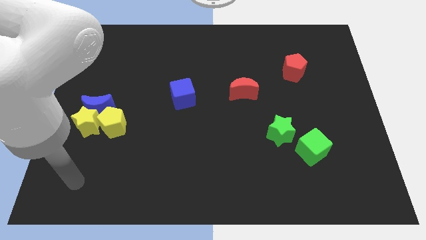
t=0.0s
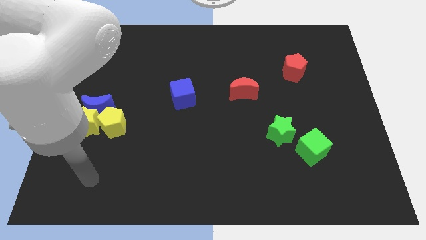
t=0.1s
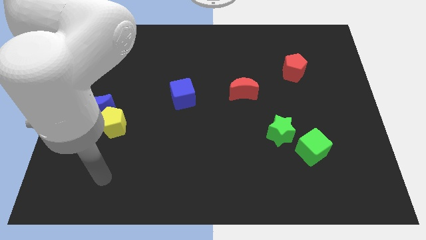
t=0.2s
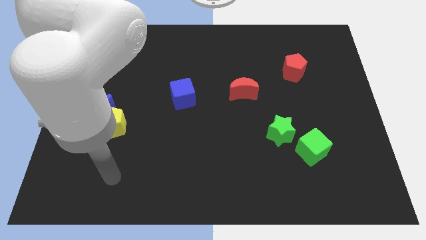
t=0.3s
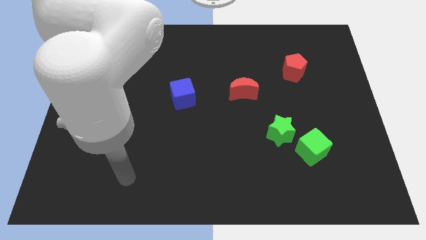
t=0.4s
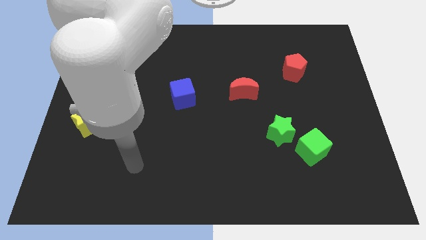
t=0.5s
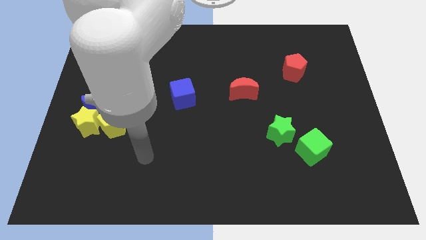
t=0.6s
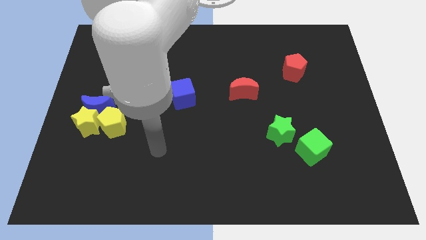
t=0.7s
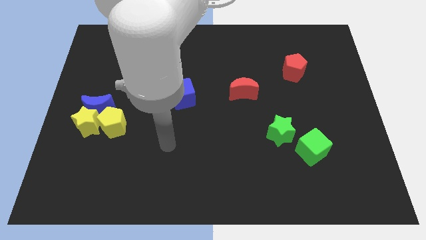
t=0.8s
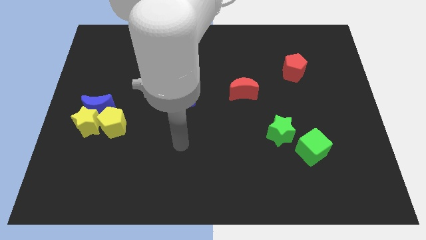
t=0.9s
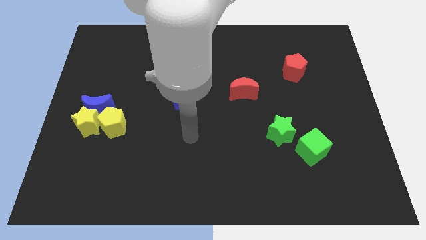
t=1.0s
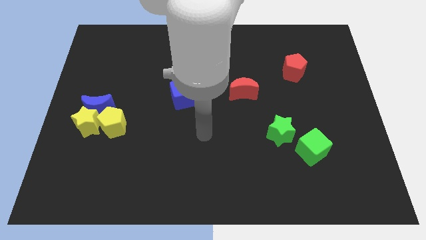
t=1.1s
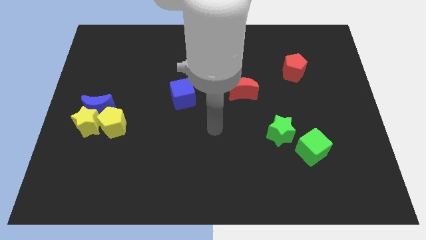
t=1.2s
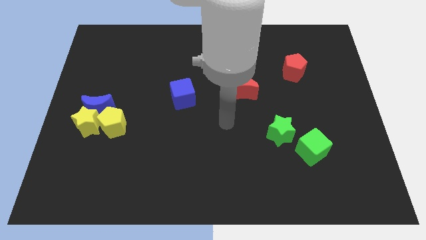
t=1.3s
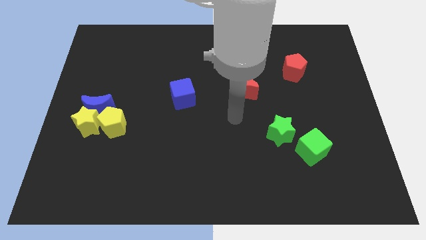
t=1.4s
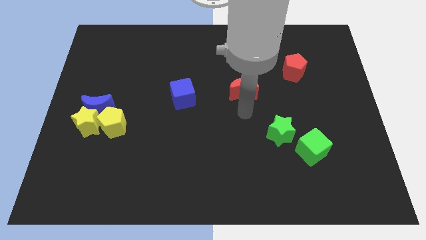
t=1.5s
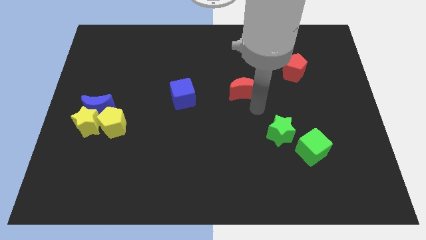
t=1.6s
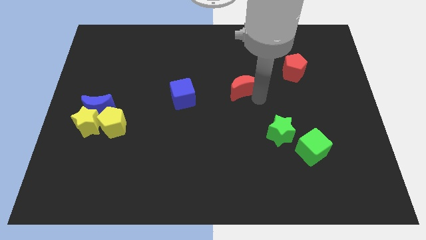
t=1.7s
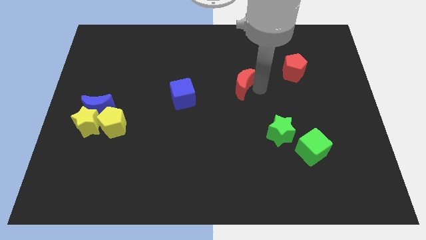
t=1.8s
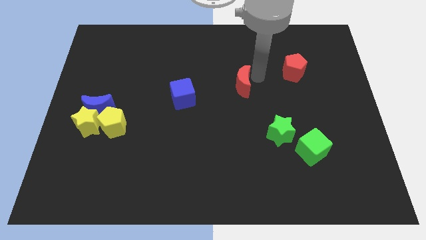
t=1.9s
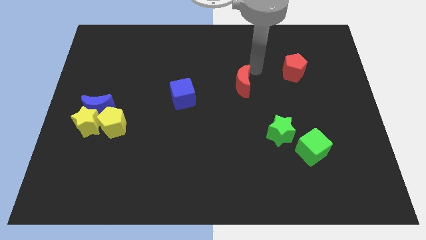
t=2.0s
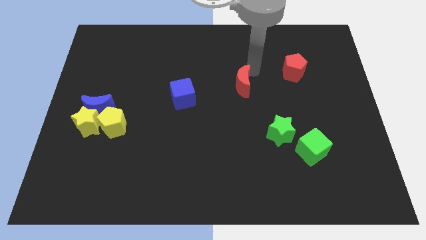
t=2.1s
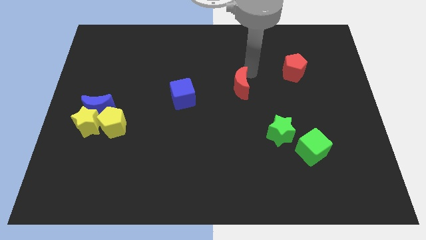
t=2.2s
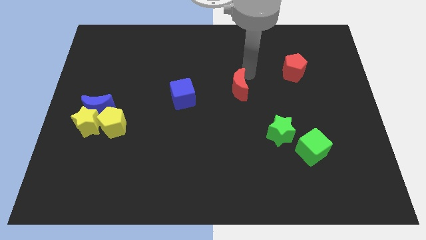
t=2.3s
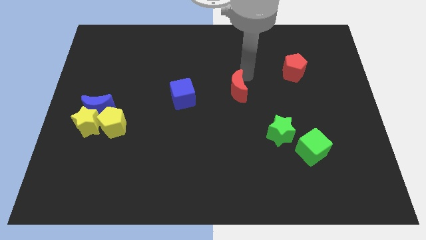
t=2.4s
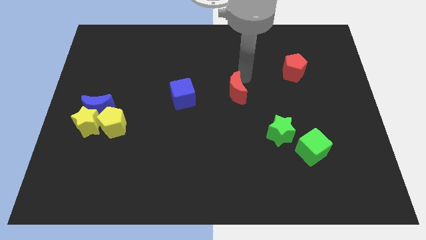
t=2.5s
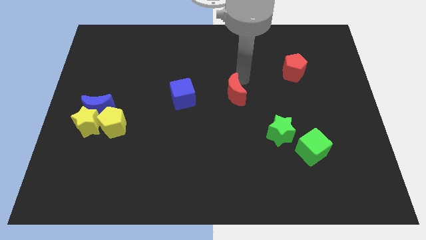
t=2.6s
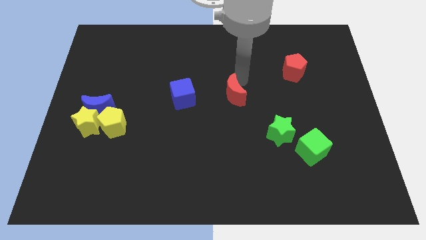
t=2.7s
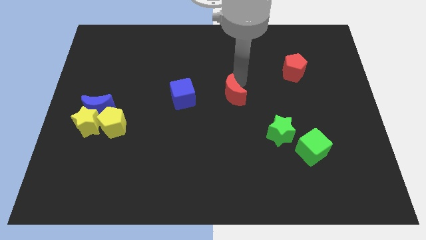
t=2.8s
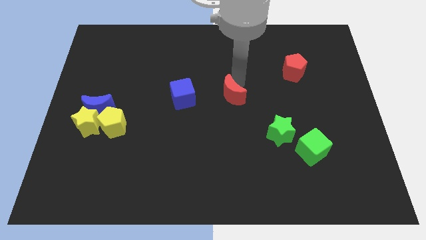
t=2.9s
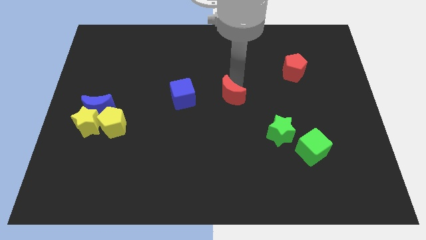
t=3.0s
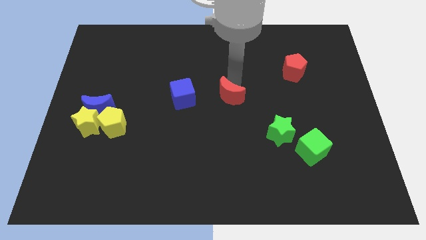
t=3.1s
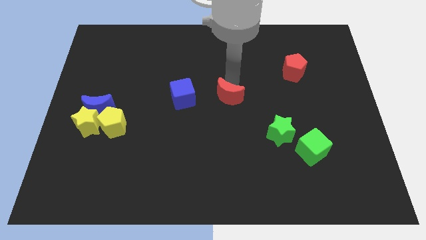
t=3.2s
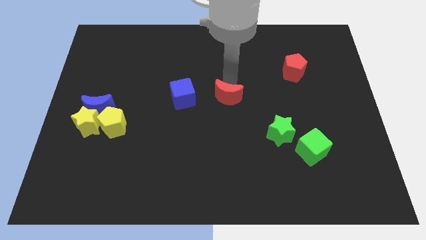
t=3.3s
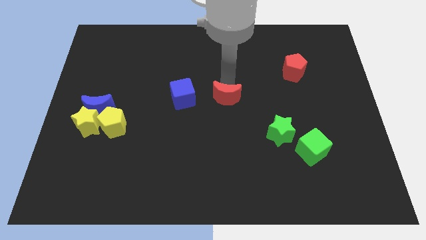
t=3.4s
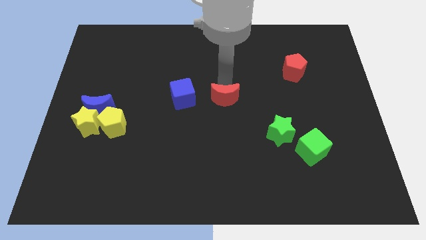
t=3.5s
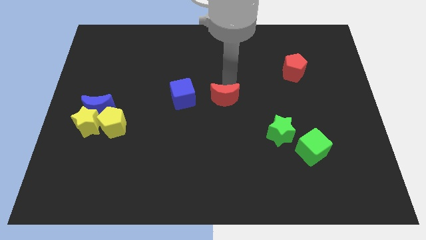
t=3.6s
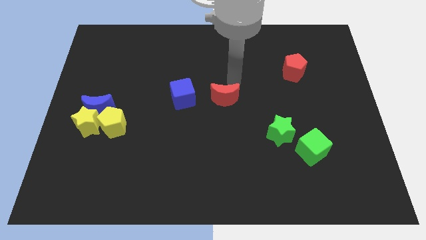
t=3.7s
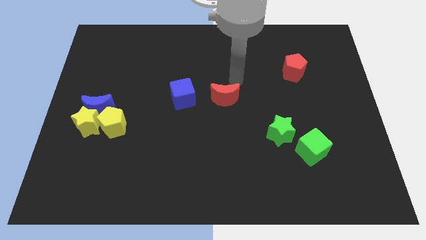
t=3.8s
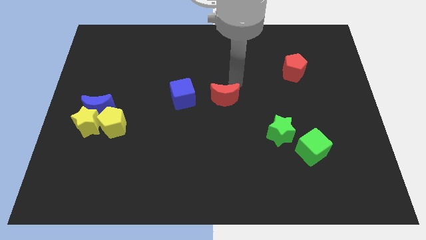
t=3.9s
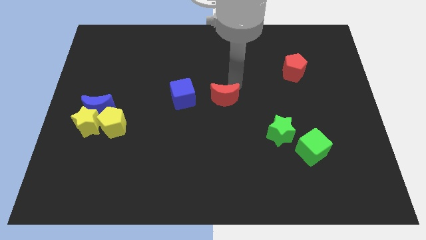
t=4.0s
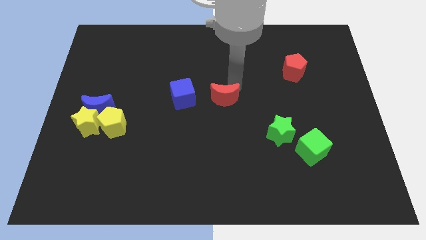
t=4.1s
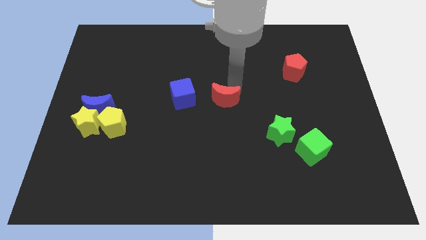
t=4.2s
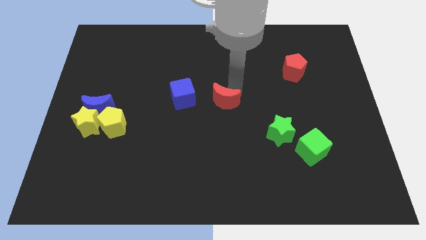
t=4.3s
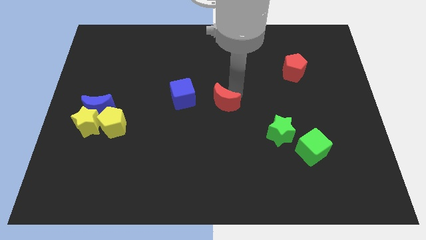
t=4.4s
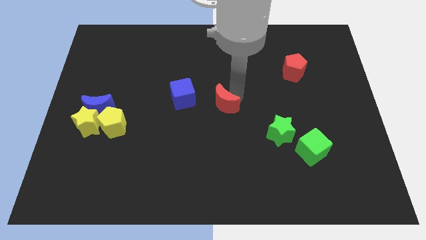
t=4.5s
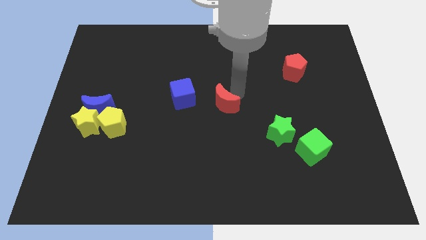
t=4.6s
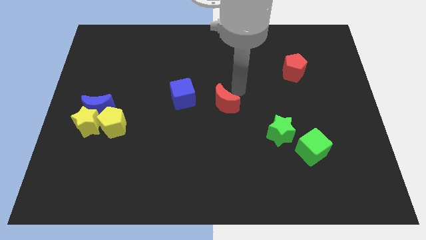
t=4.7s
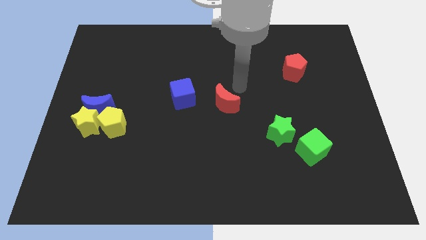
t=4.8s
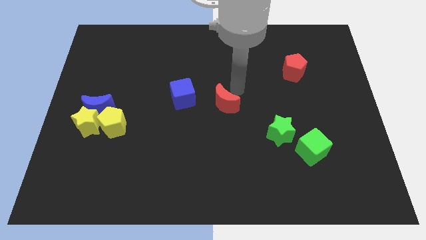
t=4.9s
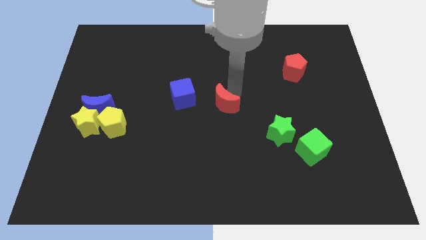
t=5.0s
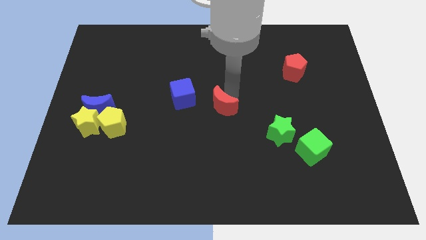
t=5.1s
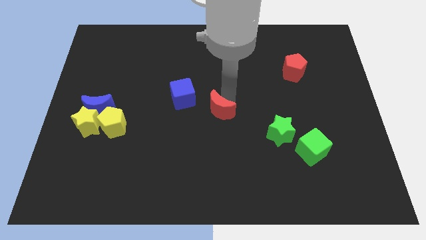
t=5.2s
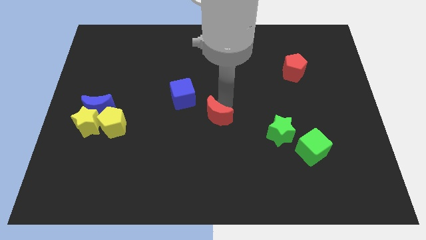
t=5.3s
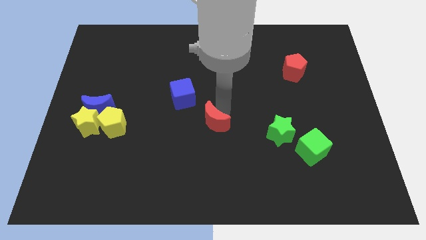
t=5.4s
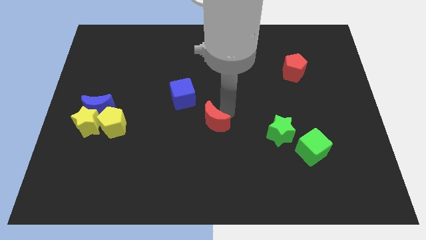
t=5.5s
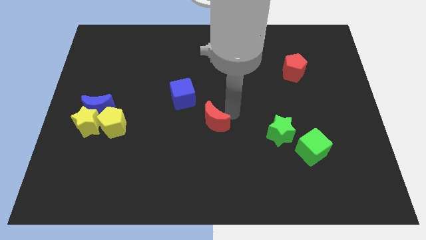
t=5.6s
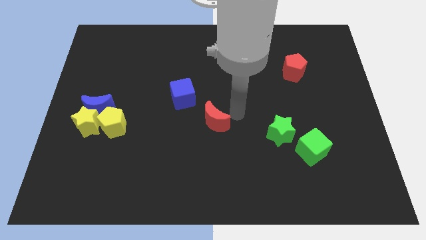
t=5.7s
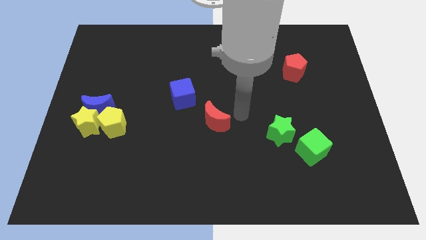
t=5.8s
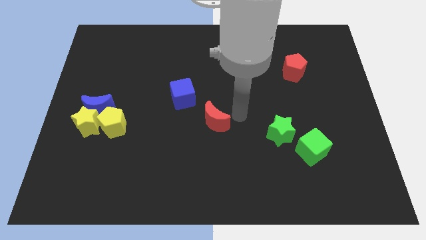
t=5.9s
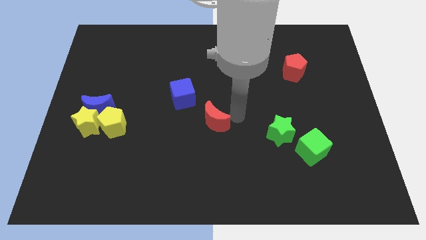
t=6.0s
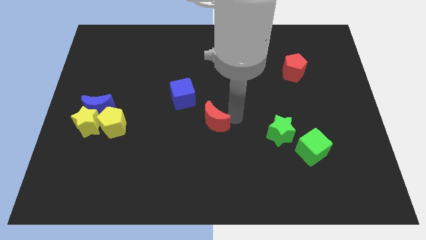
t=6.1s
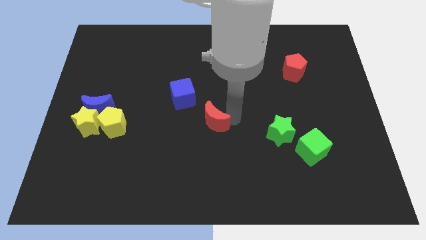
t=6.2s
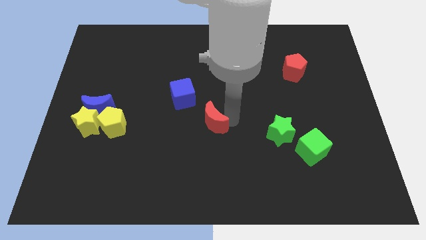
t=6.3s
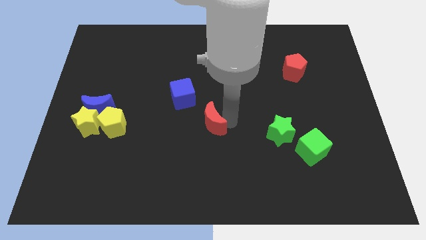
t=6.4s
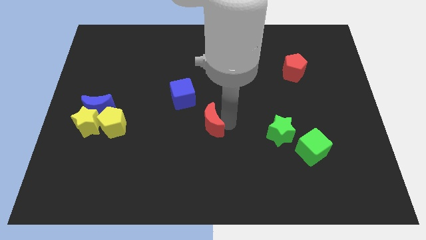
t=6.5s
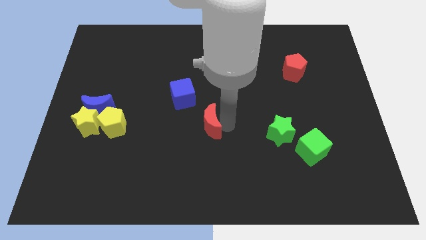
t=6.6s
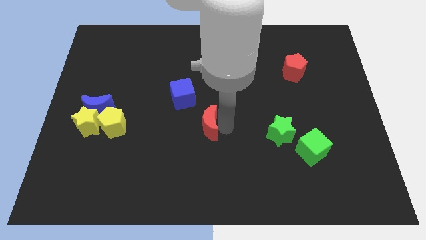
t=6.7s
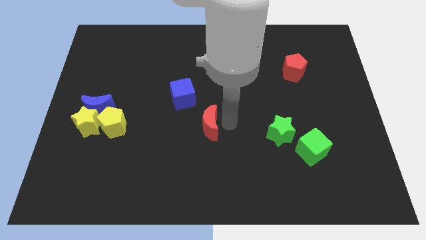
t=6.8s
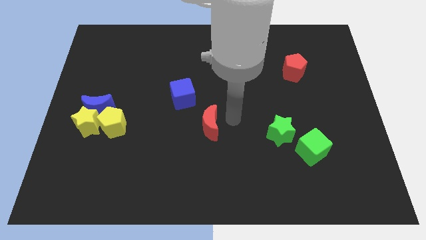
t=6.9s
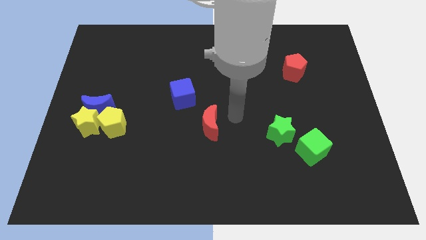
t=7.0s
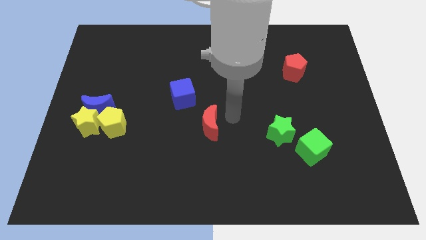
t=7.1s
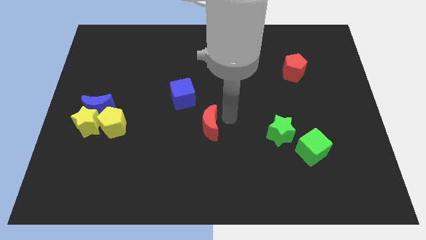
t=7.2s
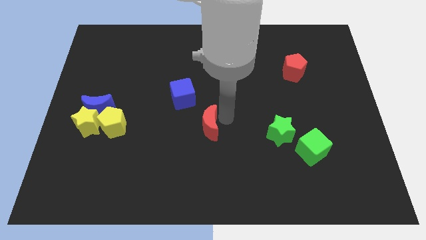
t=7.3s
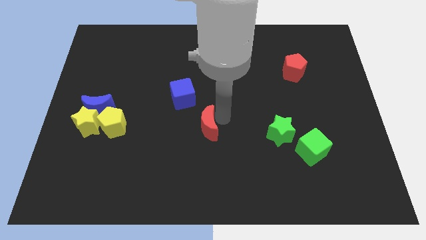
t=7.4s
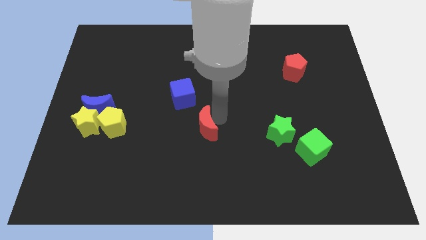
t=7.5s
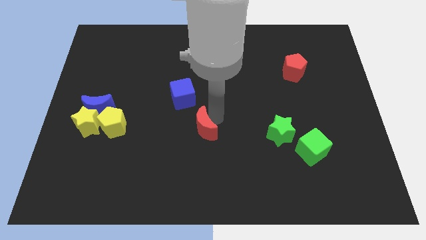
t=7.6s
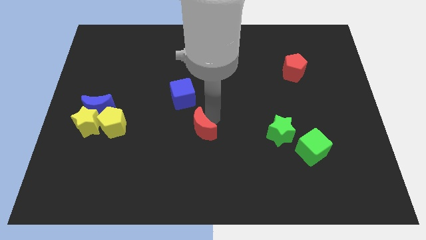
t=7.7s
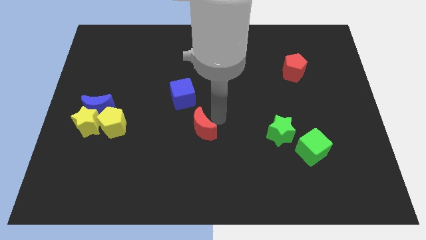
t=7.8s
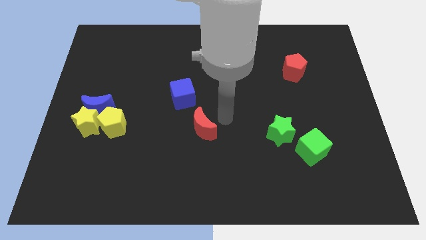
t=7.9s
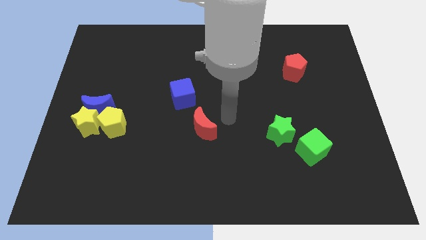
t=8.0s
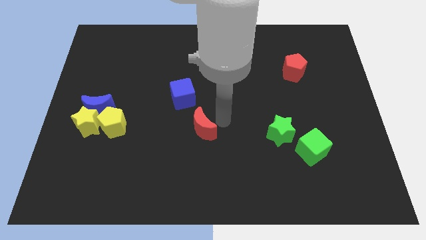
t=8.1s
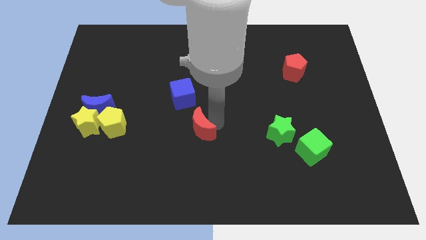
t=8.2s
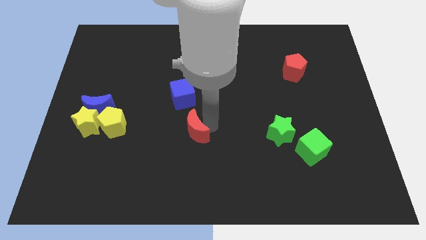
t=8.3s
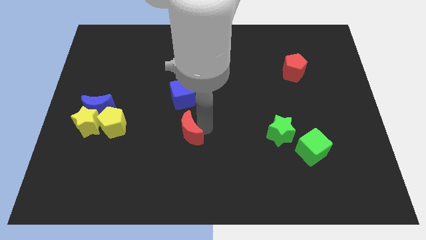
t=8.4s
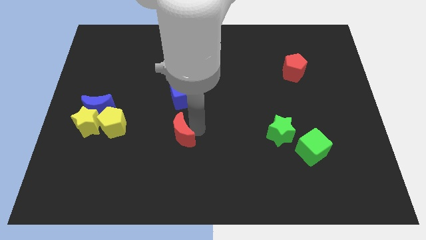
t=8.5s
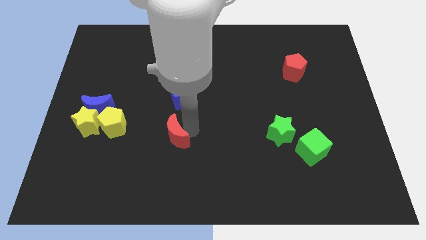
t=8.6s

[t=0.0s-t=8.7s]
move the red moon diagonally down and to the left
